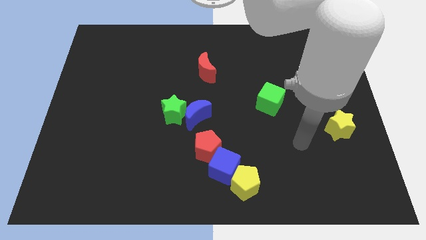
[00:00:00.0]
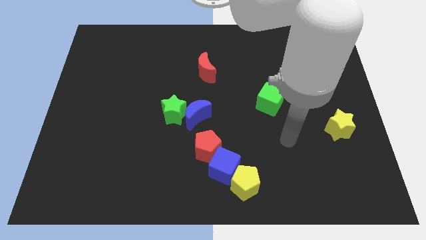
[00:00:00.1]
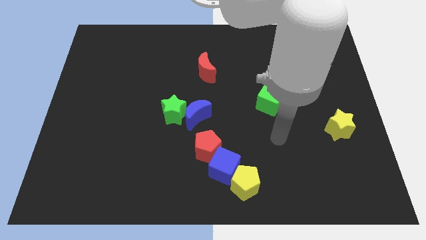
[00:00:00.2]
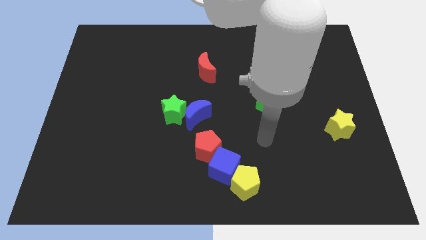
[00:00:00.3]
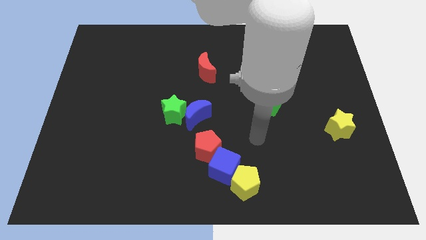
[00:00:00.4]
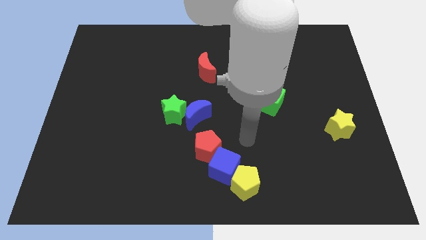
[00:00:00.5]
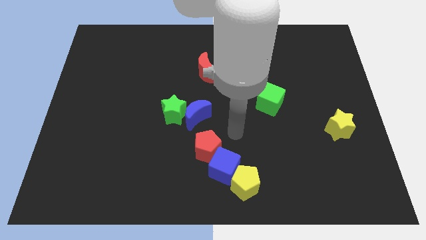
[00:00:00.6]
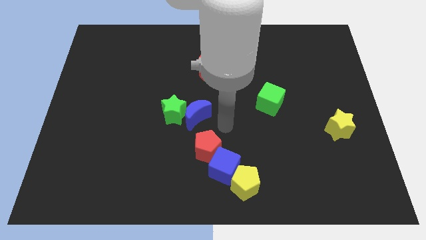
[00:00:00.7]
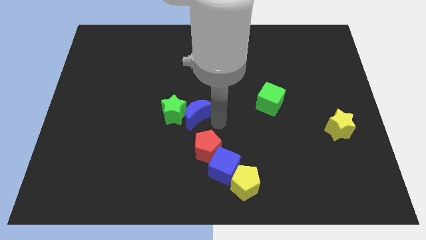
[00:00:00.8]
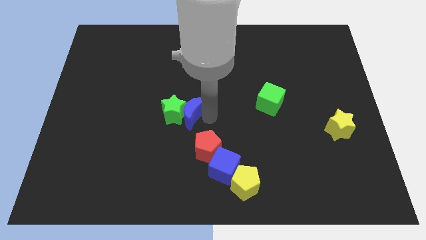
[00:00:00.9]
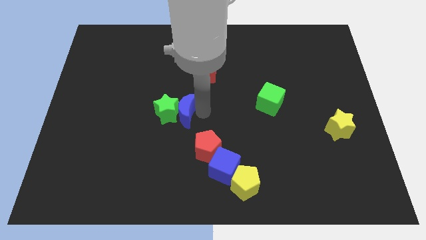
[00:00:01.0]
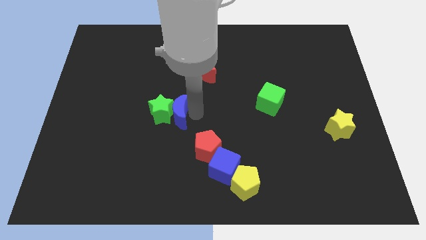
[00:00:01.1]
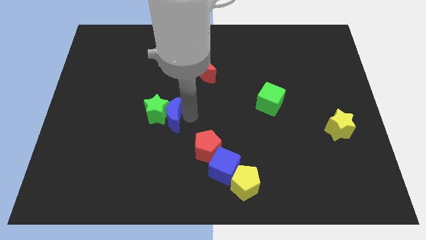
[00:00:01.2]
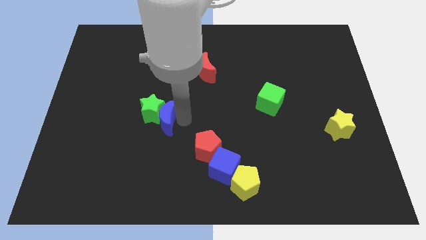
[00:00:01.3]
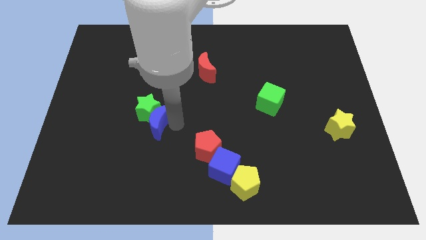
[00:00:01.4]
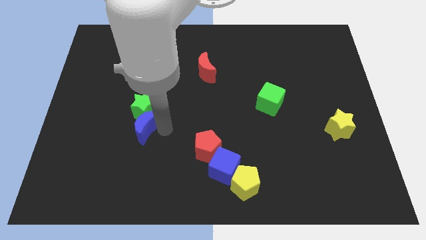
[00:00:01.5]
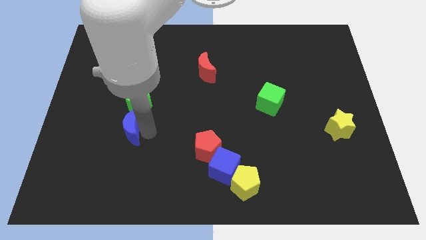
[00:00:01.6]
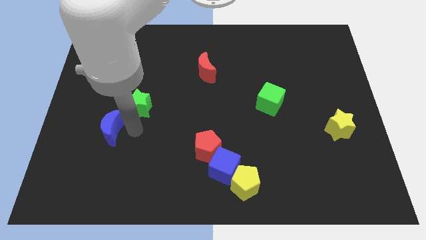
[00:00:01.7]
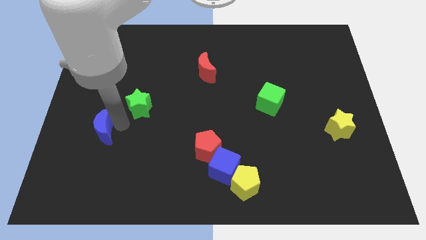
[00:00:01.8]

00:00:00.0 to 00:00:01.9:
separate the green star from the blue moon

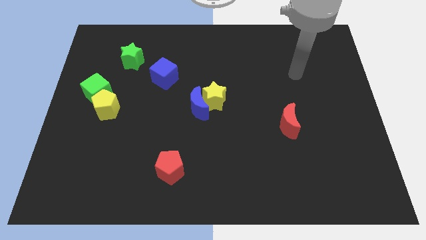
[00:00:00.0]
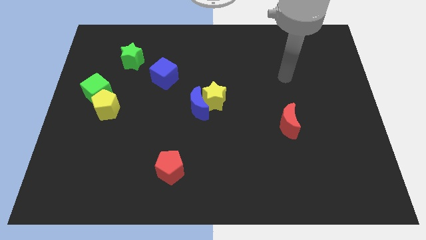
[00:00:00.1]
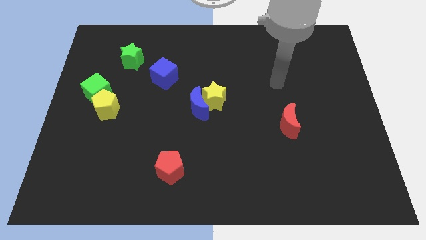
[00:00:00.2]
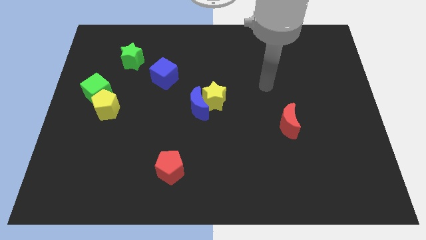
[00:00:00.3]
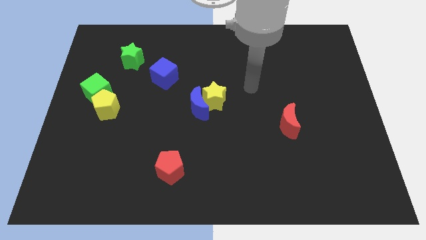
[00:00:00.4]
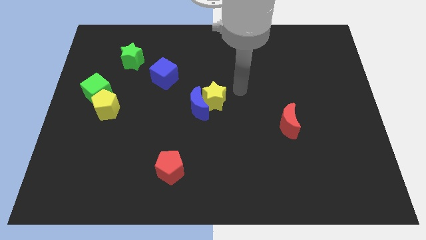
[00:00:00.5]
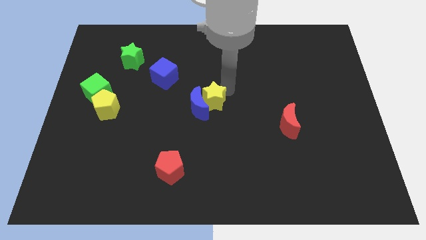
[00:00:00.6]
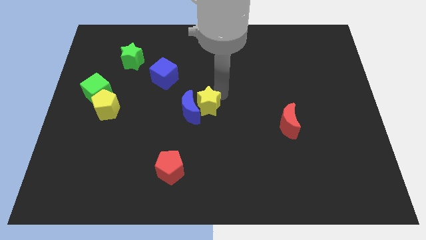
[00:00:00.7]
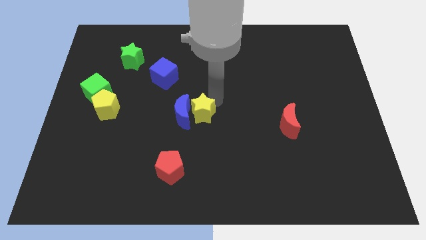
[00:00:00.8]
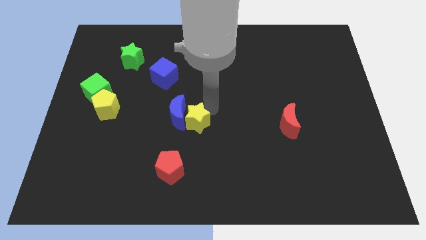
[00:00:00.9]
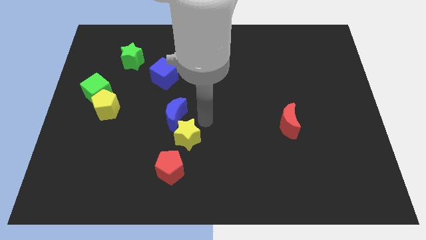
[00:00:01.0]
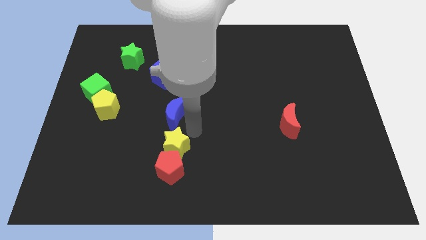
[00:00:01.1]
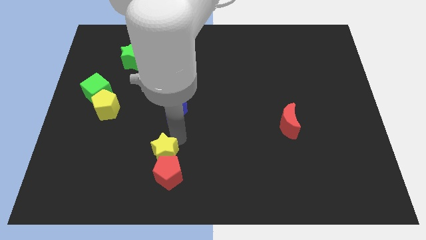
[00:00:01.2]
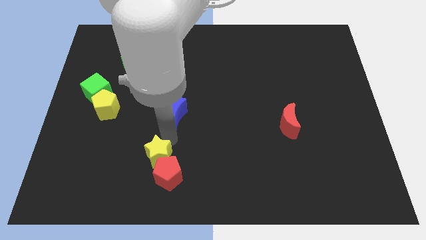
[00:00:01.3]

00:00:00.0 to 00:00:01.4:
pull the blue moon apart from the yellow star

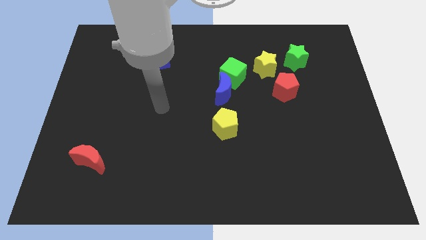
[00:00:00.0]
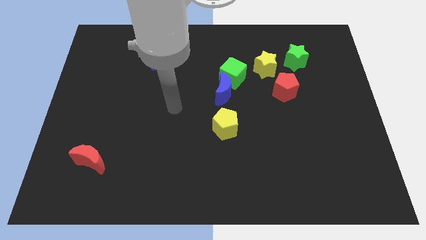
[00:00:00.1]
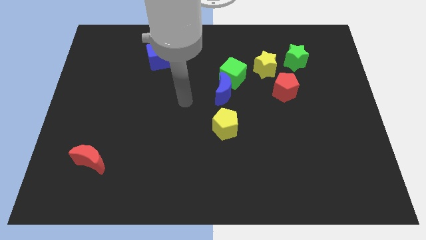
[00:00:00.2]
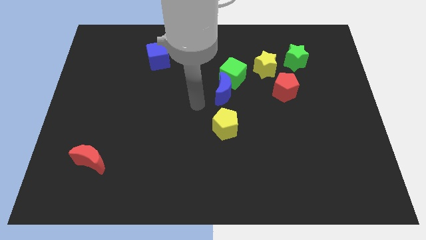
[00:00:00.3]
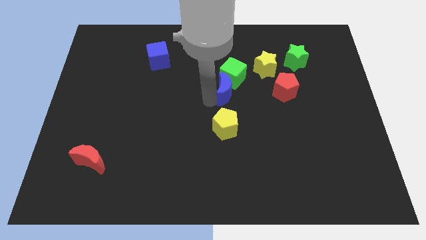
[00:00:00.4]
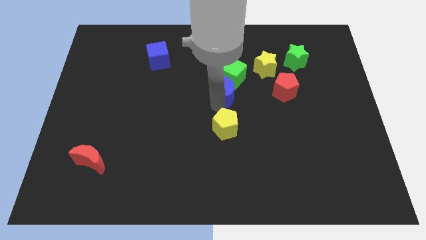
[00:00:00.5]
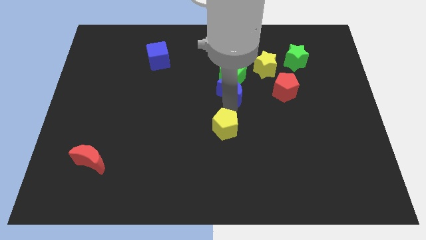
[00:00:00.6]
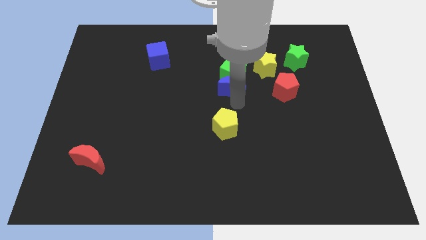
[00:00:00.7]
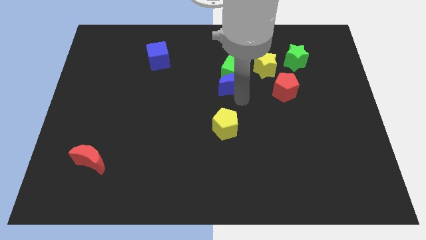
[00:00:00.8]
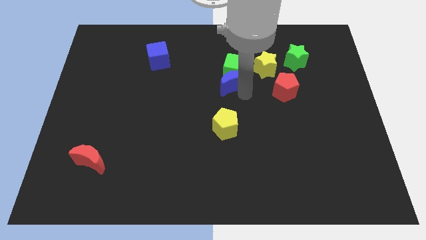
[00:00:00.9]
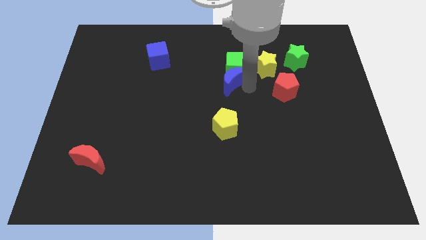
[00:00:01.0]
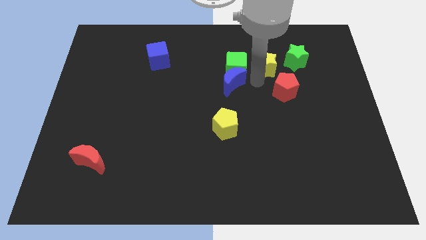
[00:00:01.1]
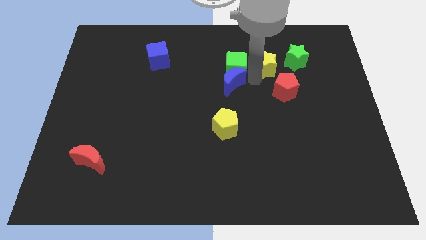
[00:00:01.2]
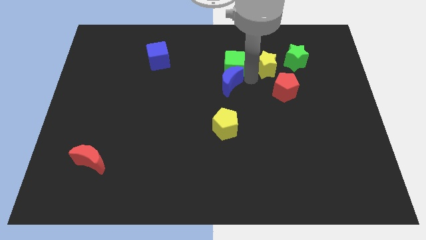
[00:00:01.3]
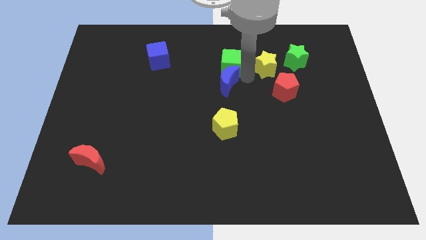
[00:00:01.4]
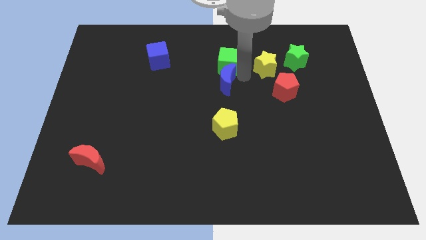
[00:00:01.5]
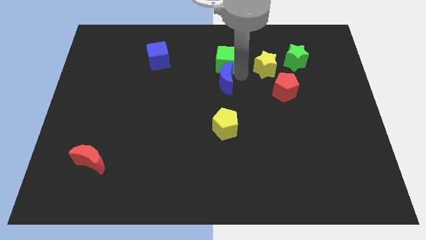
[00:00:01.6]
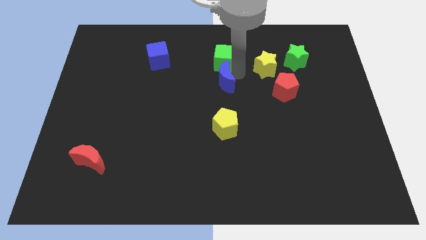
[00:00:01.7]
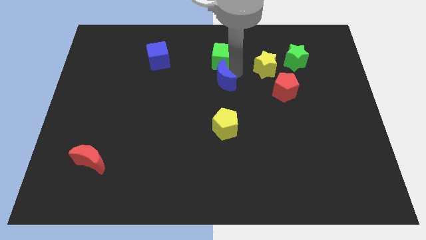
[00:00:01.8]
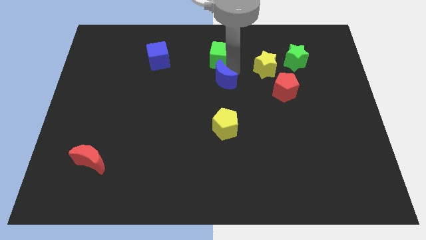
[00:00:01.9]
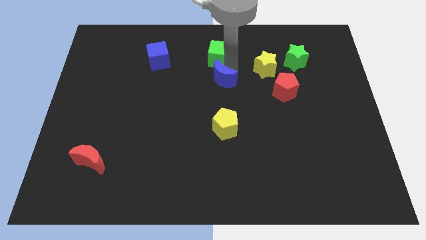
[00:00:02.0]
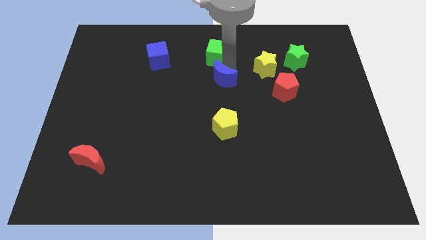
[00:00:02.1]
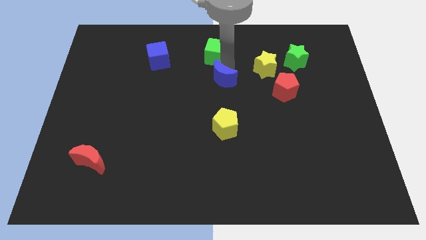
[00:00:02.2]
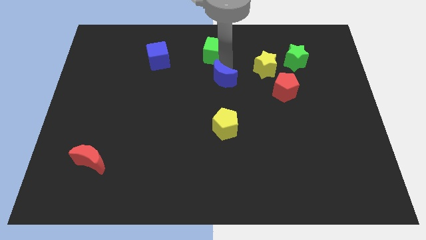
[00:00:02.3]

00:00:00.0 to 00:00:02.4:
move the green cube away from the blue moon and yellow star

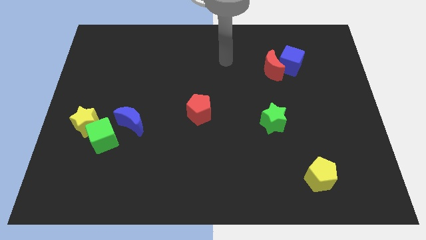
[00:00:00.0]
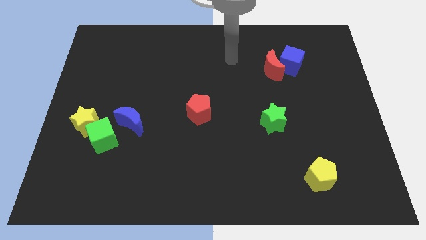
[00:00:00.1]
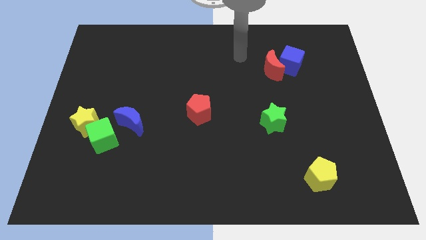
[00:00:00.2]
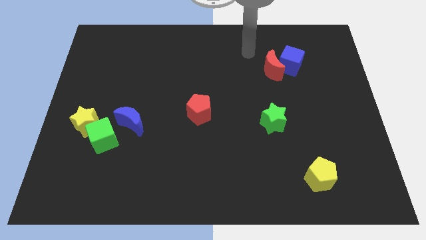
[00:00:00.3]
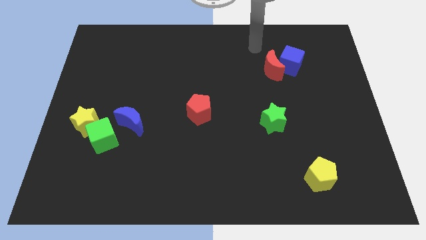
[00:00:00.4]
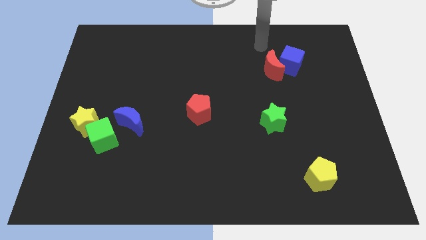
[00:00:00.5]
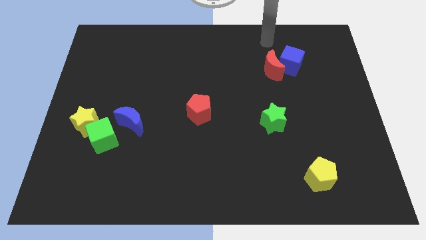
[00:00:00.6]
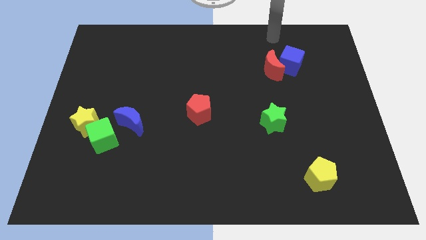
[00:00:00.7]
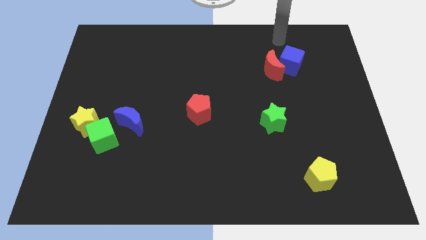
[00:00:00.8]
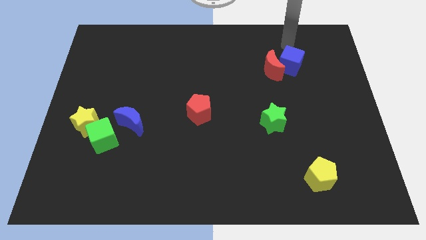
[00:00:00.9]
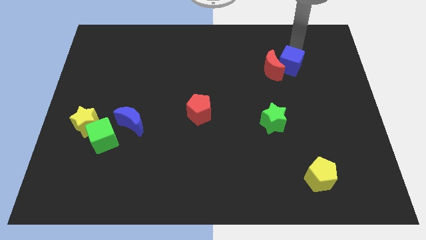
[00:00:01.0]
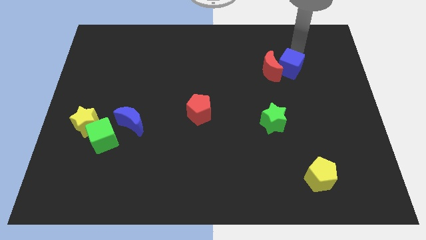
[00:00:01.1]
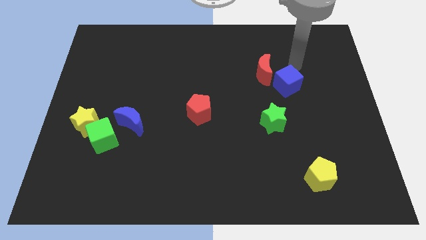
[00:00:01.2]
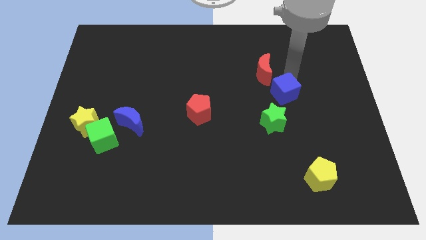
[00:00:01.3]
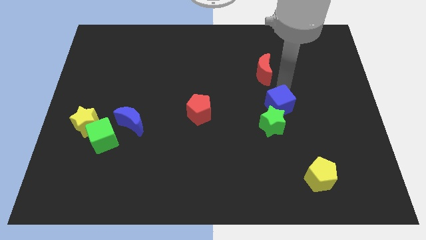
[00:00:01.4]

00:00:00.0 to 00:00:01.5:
move the red moon away from the blue cube

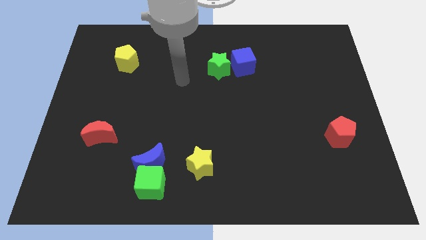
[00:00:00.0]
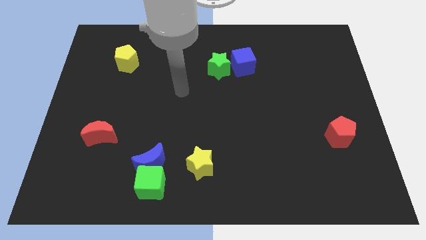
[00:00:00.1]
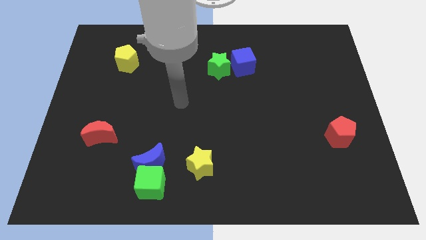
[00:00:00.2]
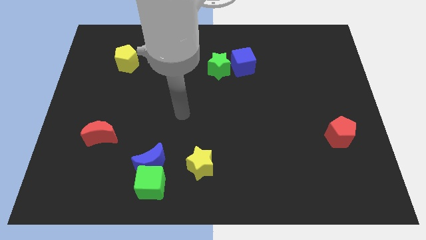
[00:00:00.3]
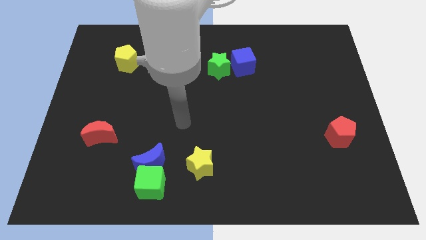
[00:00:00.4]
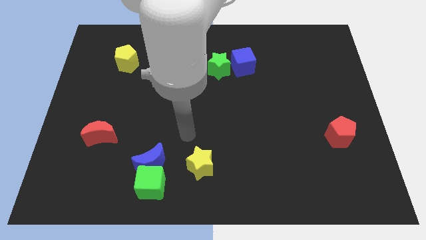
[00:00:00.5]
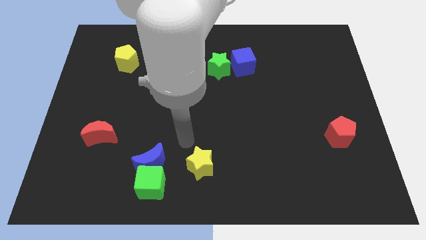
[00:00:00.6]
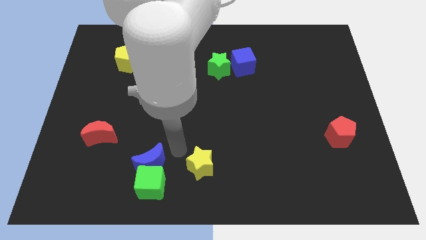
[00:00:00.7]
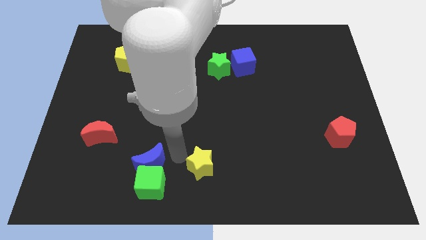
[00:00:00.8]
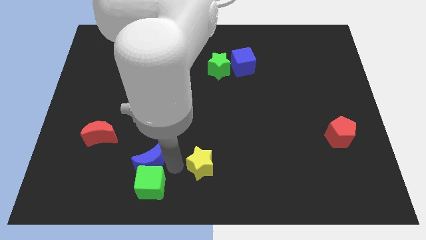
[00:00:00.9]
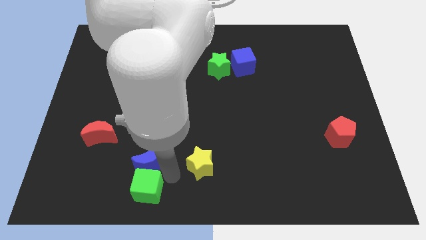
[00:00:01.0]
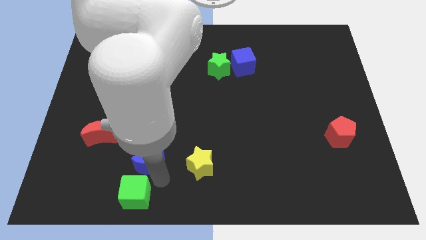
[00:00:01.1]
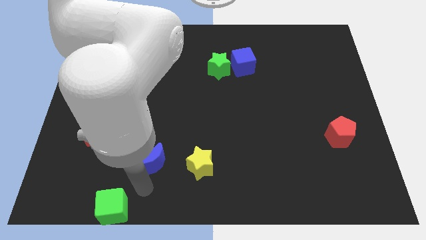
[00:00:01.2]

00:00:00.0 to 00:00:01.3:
separate the blue moon from the green cube

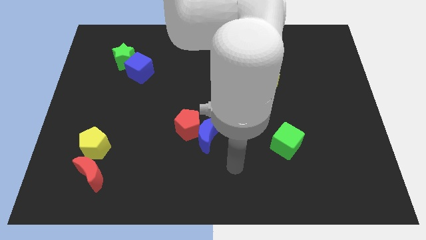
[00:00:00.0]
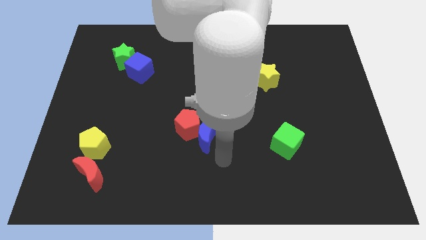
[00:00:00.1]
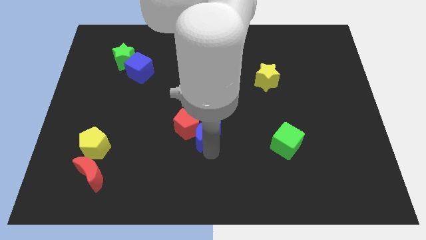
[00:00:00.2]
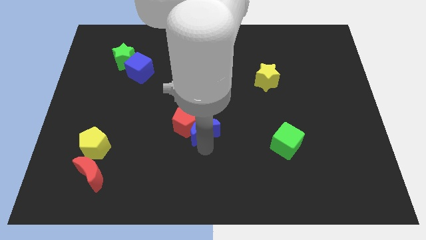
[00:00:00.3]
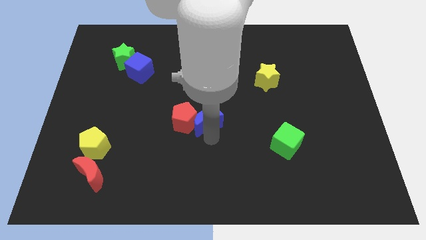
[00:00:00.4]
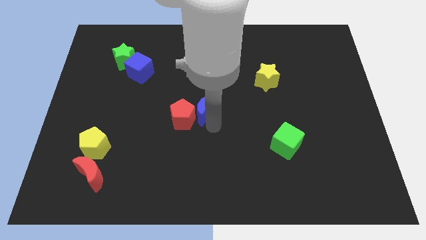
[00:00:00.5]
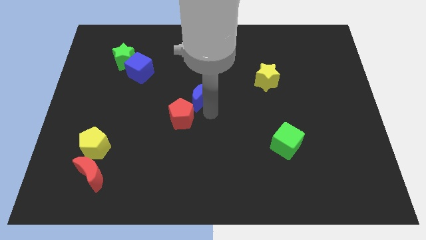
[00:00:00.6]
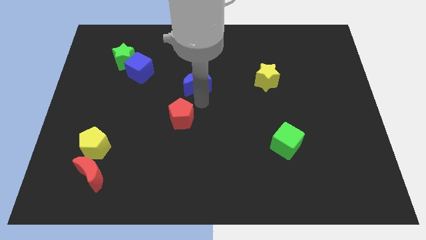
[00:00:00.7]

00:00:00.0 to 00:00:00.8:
separate the red pentagon from the blue moon
